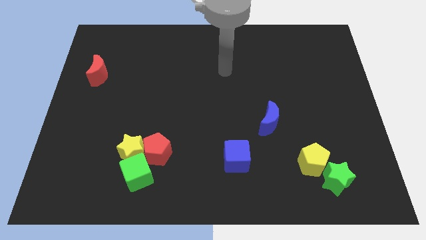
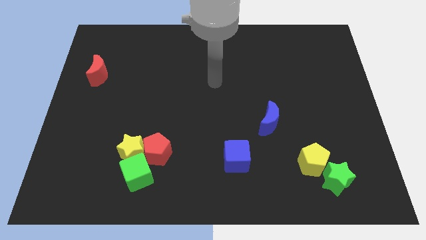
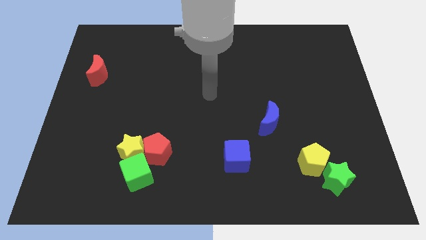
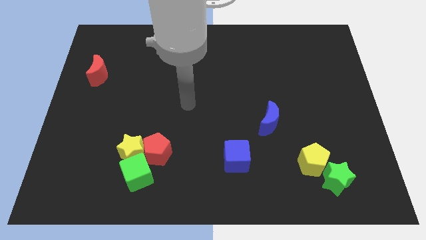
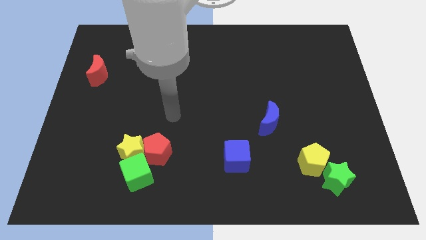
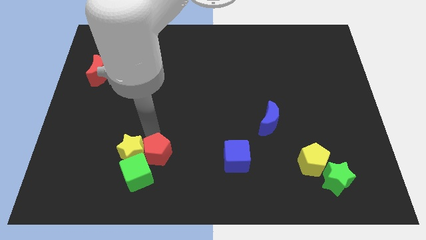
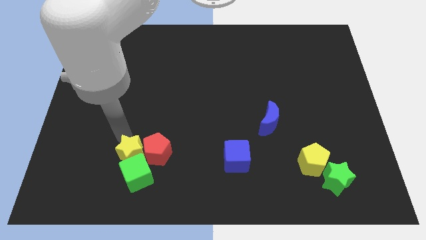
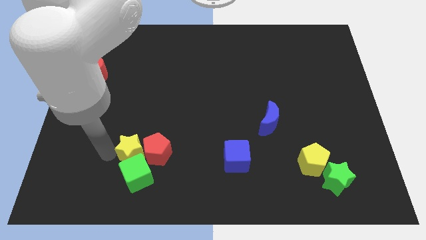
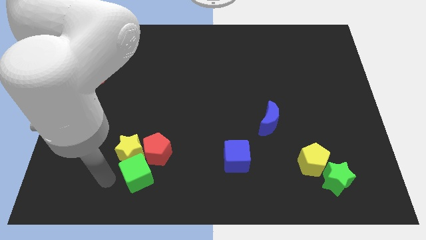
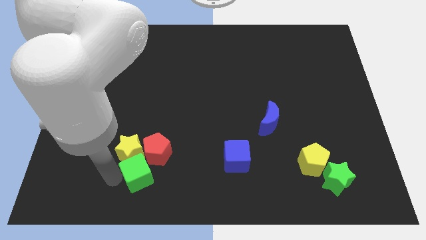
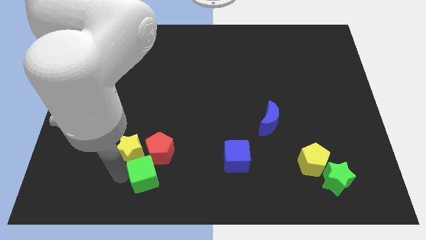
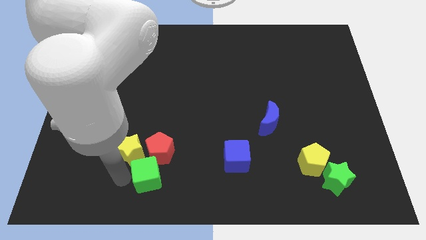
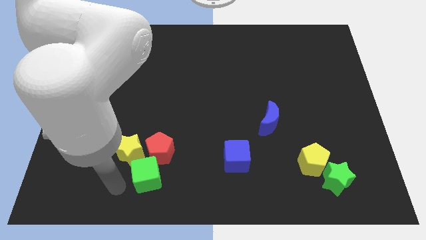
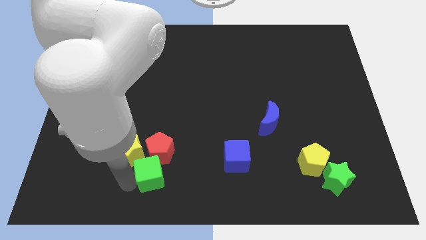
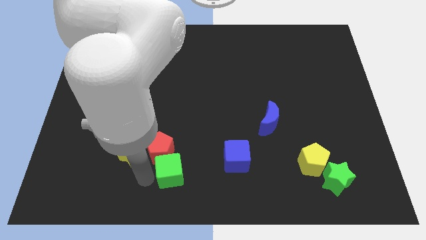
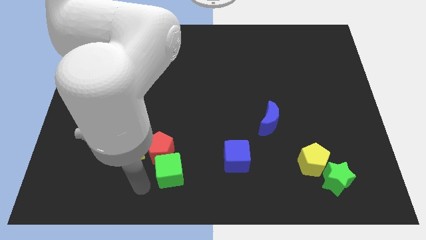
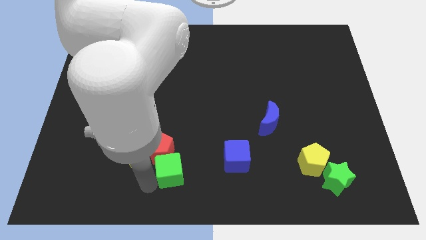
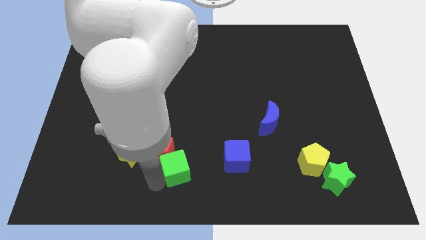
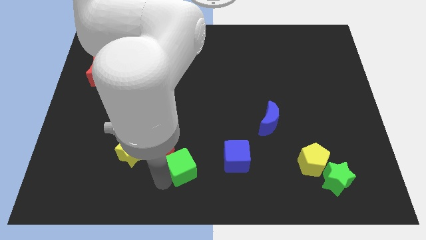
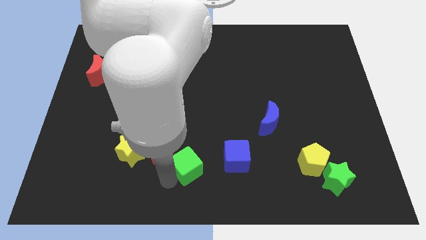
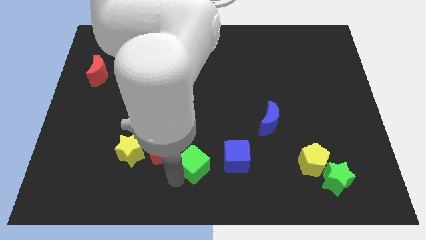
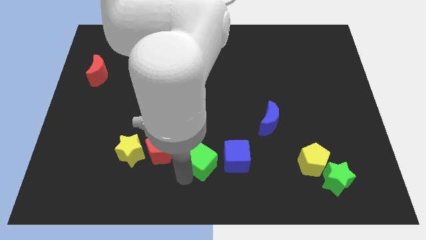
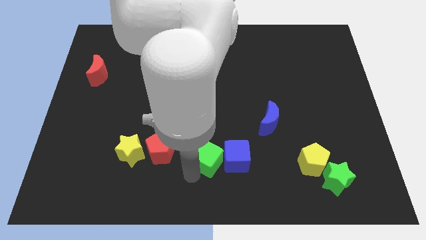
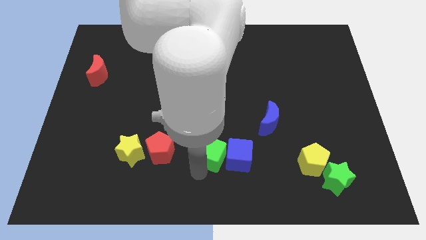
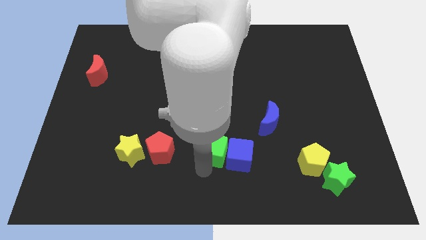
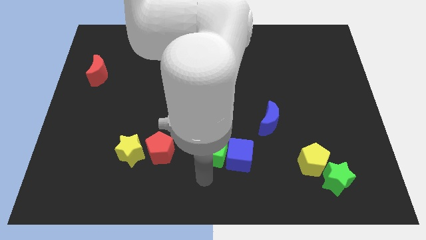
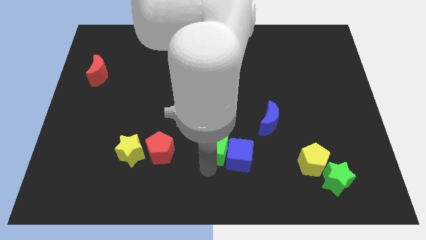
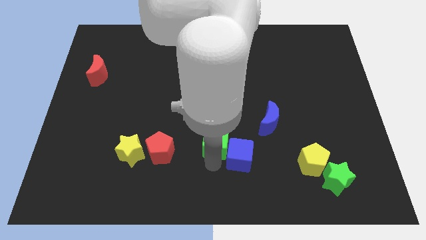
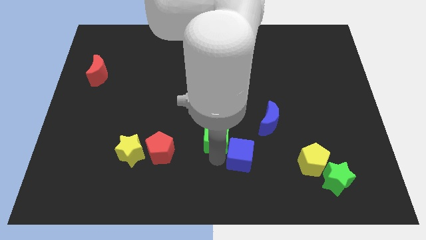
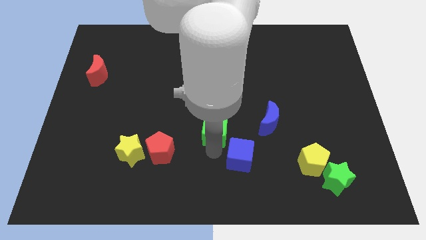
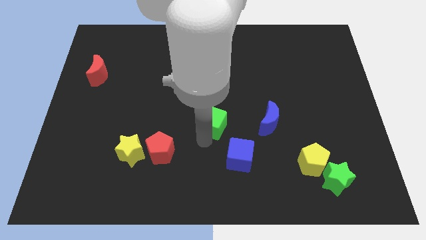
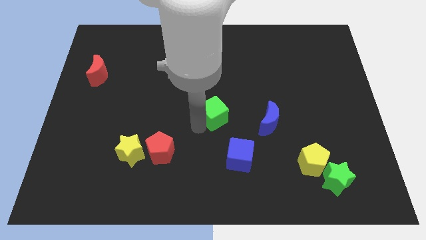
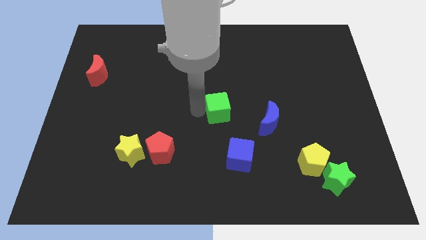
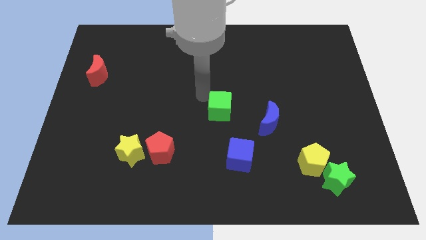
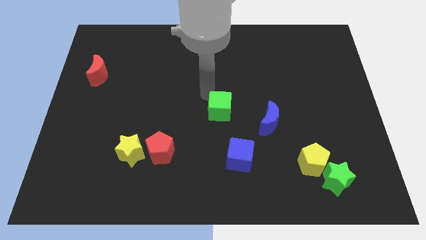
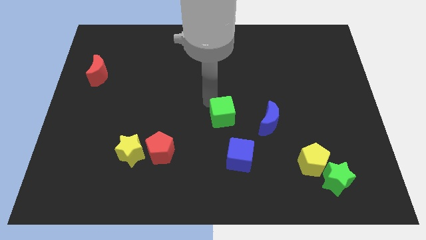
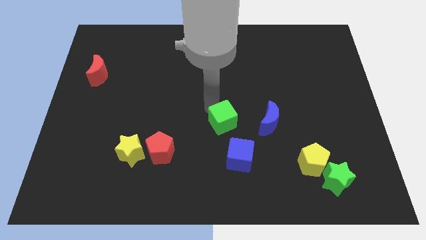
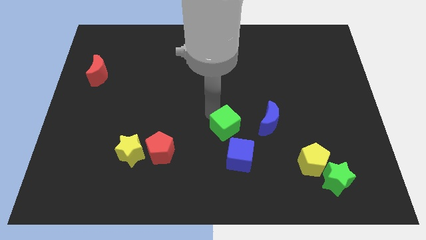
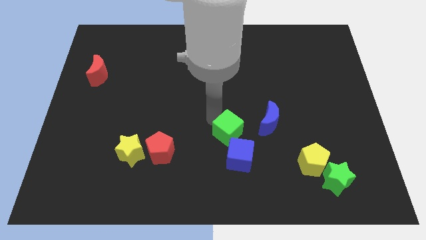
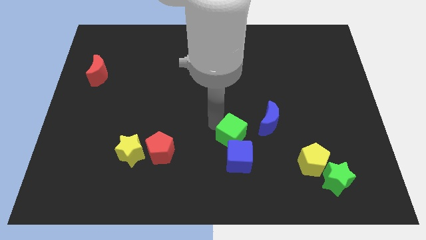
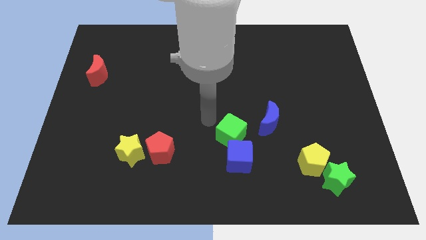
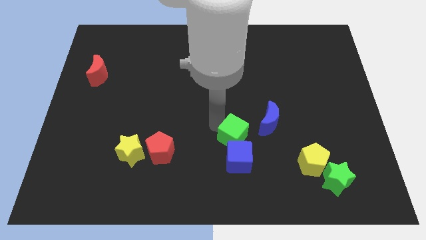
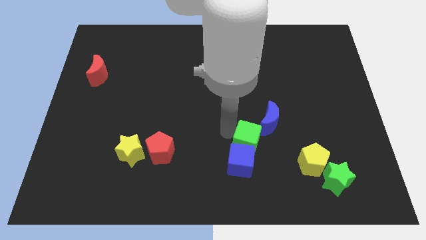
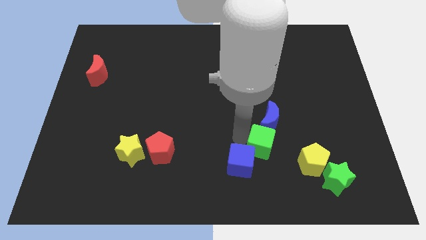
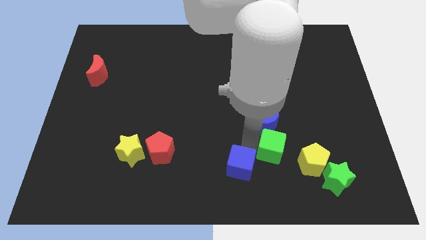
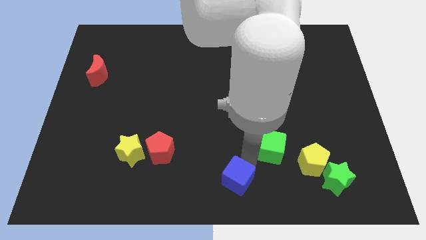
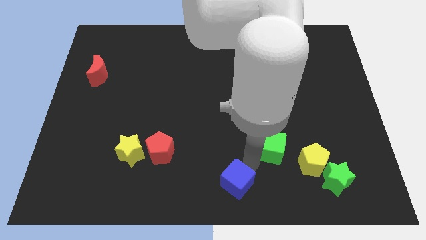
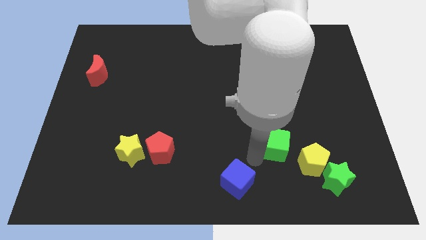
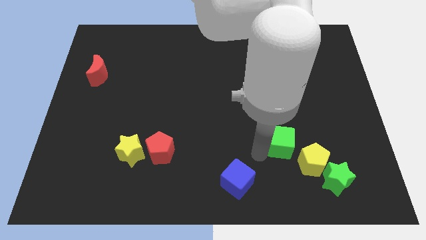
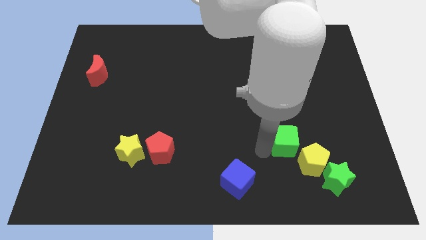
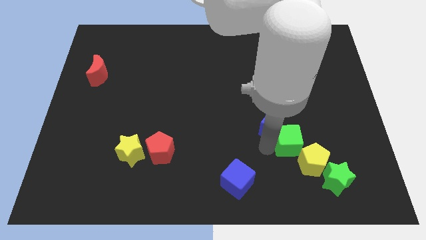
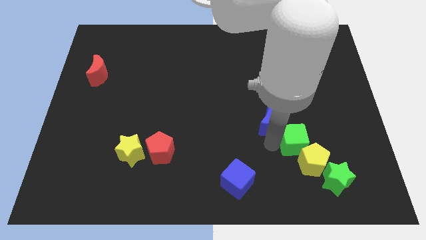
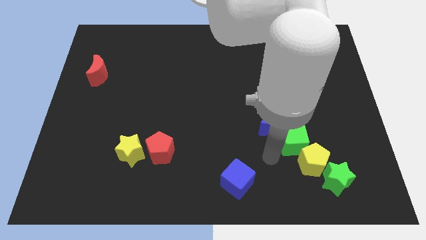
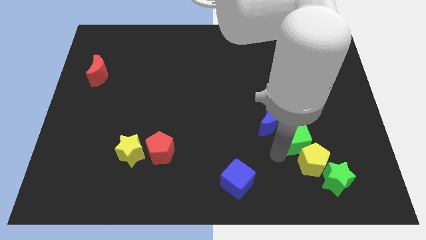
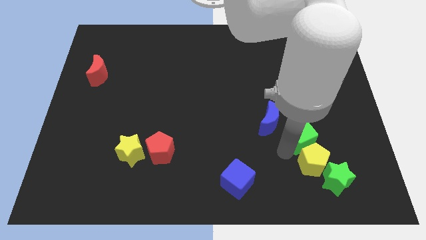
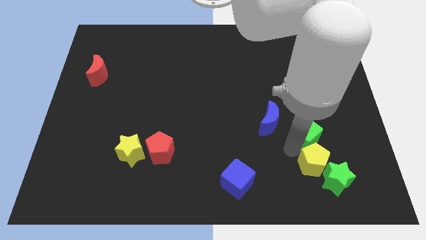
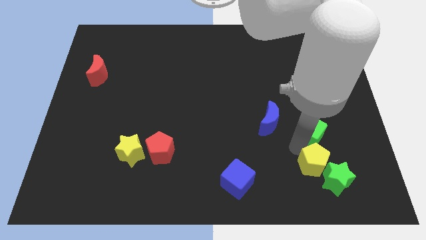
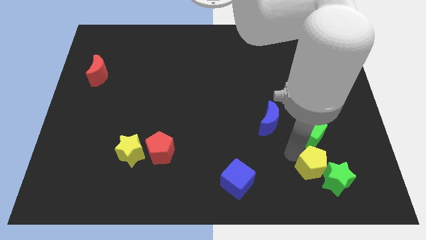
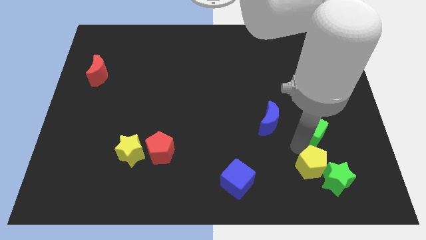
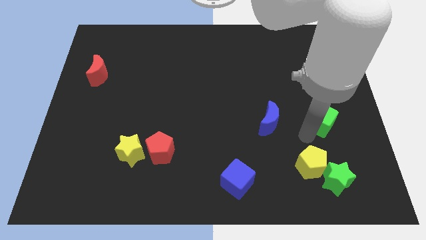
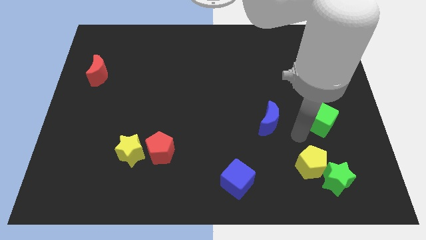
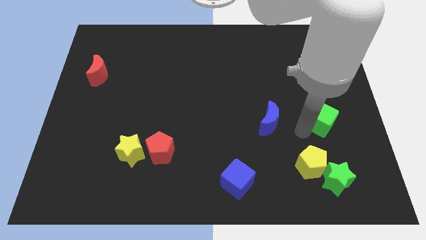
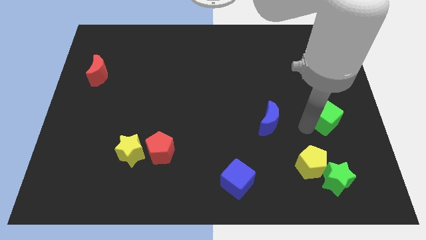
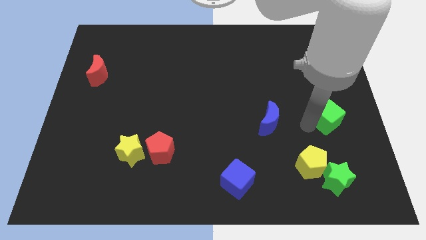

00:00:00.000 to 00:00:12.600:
put the green cube to the center right
